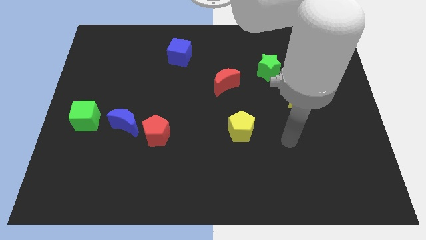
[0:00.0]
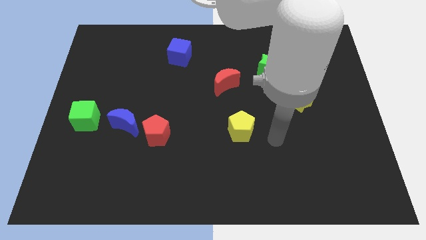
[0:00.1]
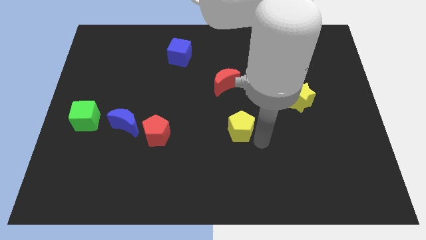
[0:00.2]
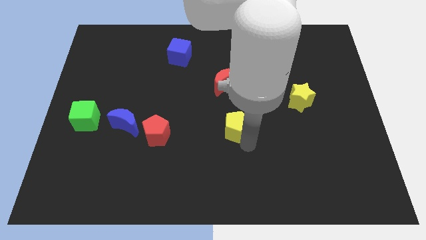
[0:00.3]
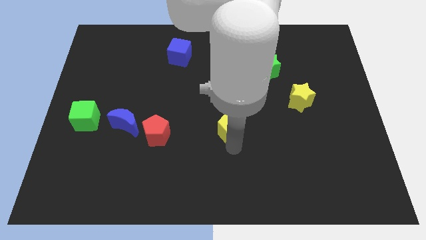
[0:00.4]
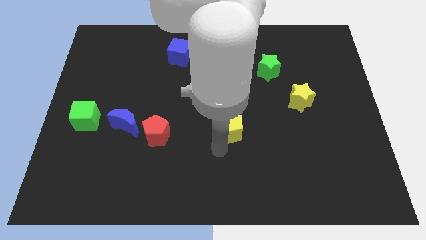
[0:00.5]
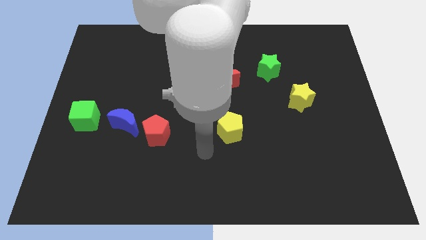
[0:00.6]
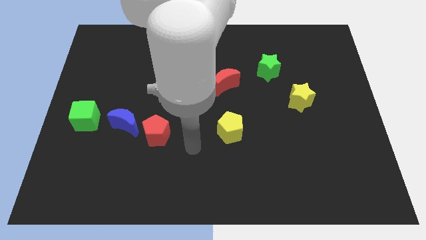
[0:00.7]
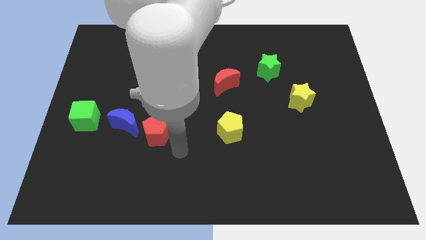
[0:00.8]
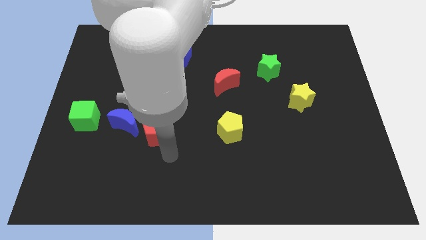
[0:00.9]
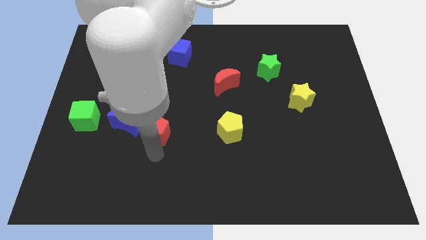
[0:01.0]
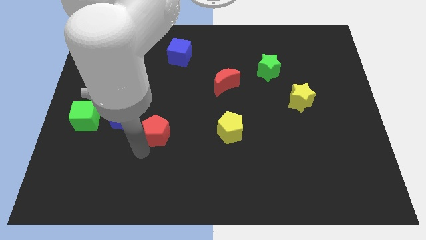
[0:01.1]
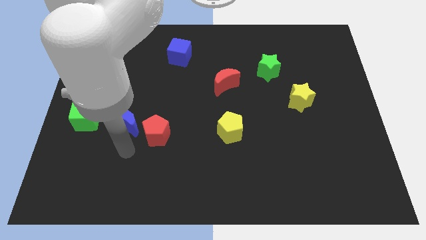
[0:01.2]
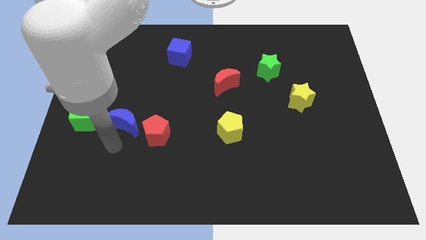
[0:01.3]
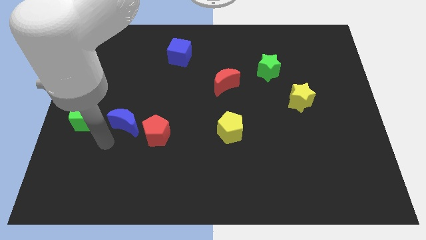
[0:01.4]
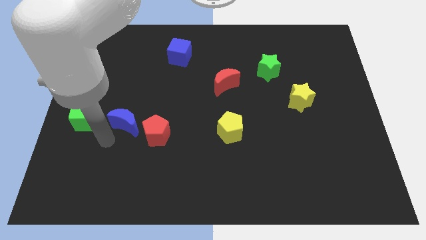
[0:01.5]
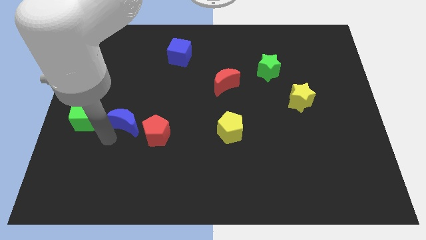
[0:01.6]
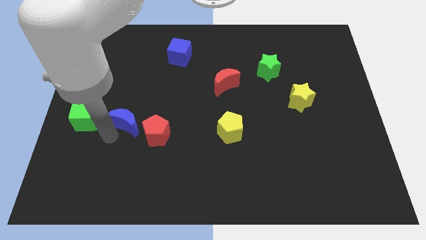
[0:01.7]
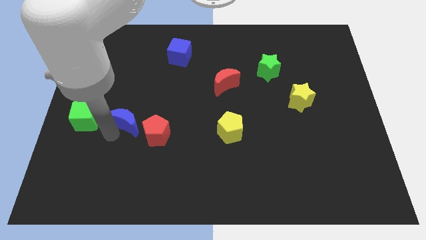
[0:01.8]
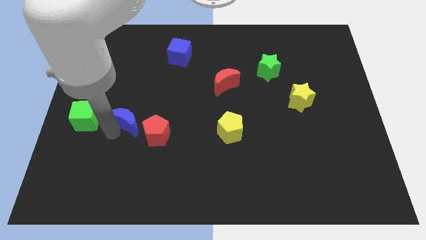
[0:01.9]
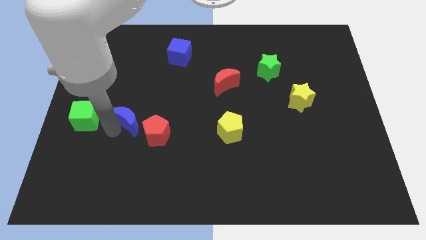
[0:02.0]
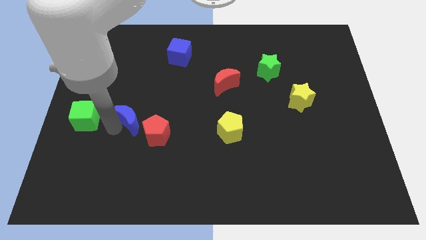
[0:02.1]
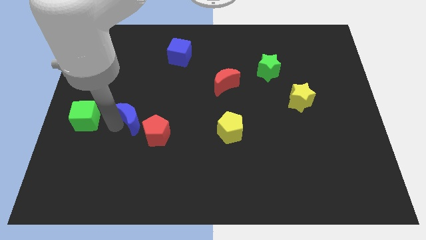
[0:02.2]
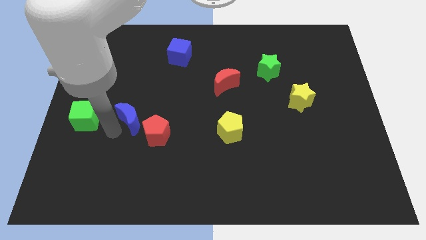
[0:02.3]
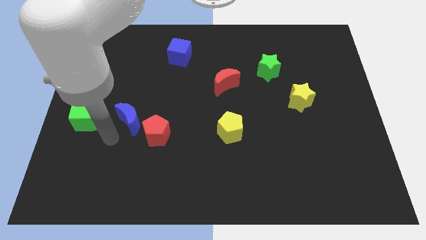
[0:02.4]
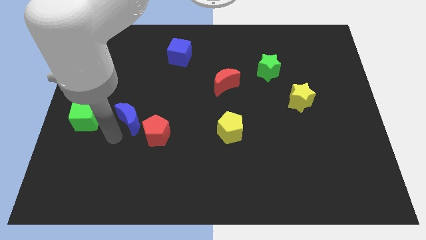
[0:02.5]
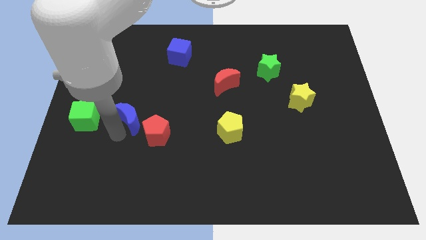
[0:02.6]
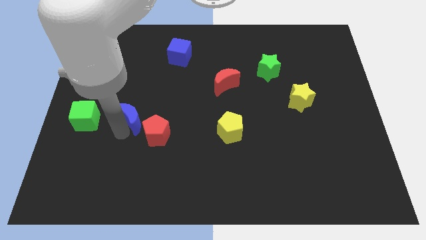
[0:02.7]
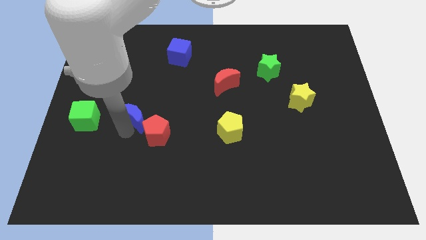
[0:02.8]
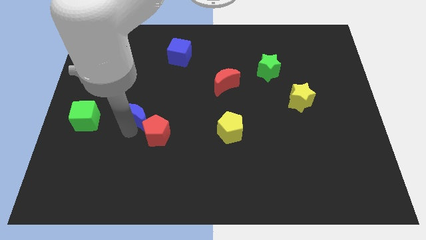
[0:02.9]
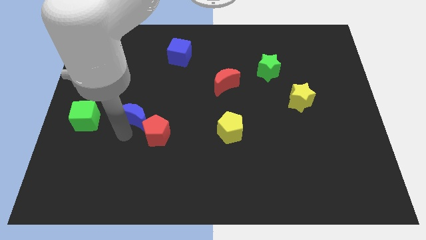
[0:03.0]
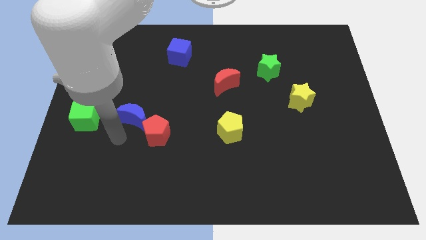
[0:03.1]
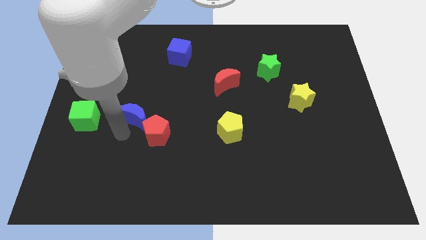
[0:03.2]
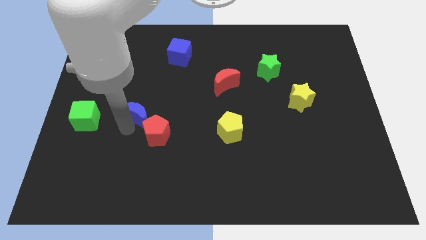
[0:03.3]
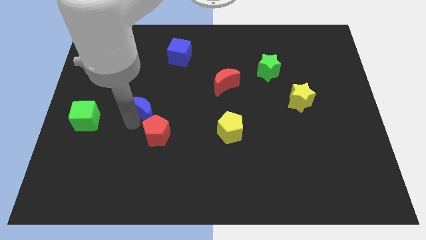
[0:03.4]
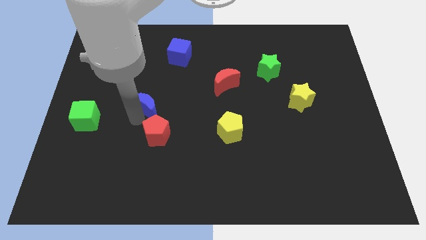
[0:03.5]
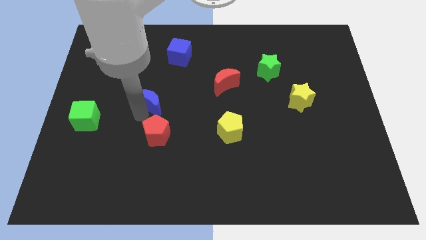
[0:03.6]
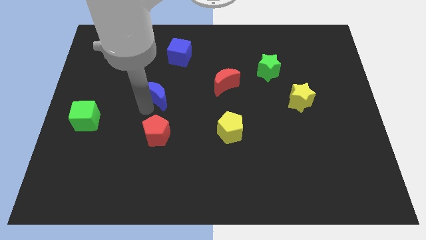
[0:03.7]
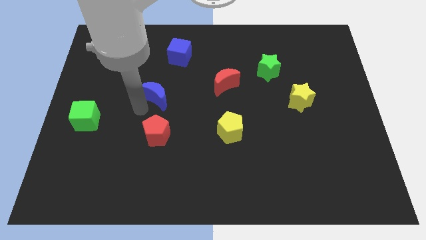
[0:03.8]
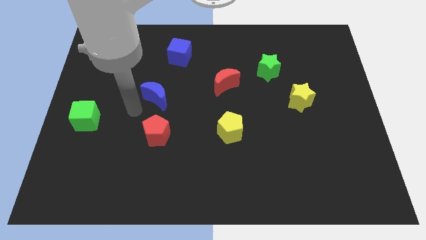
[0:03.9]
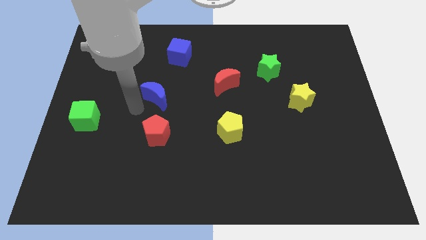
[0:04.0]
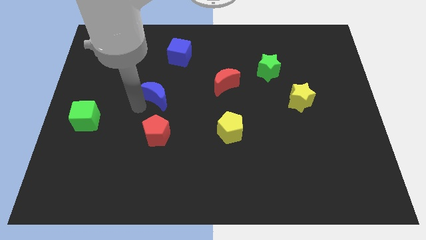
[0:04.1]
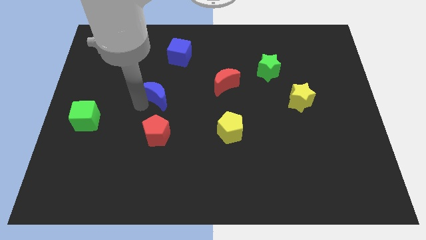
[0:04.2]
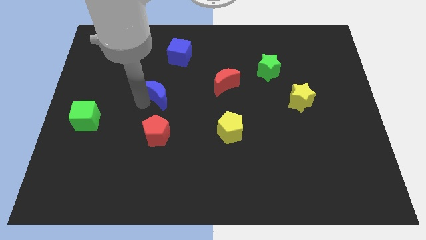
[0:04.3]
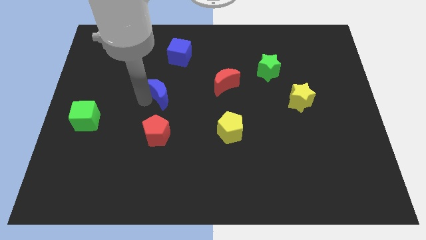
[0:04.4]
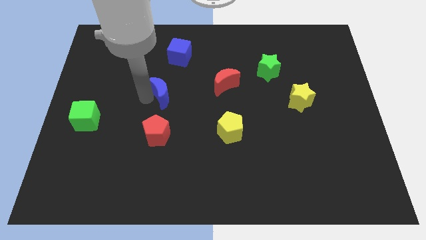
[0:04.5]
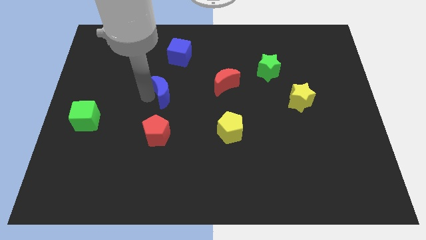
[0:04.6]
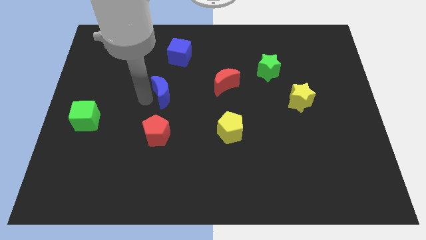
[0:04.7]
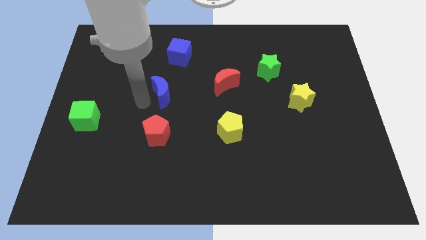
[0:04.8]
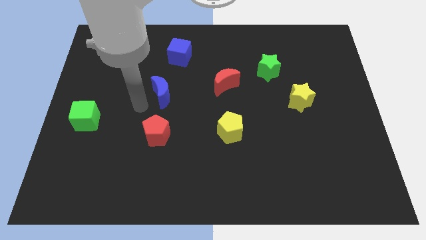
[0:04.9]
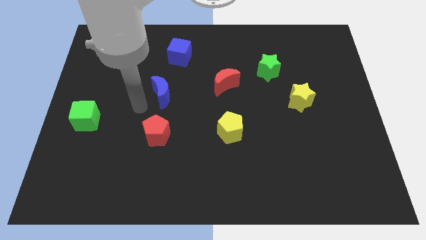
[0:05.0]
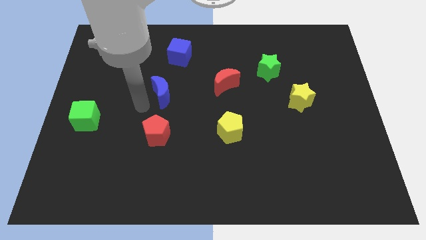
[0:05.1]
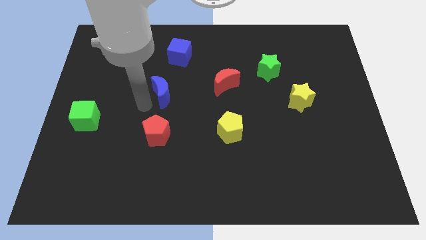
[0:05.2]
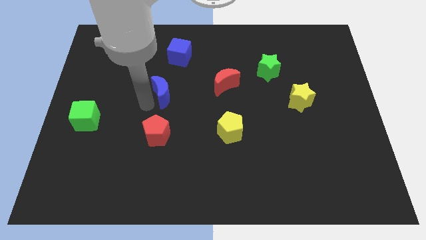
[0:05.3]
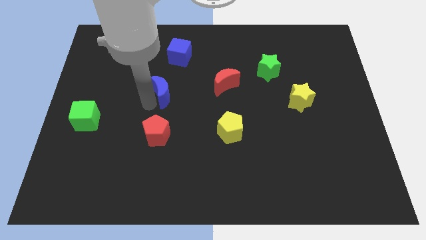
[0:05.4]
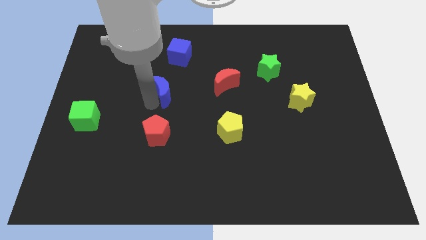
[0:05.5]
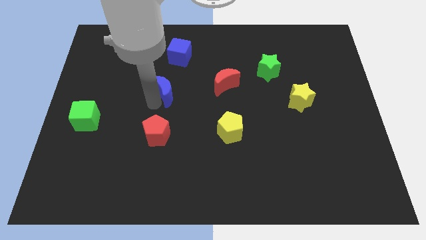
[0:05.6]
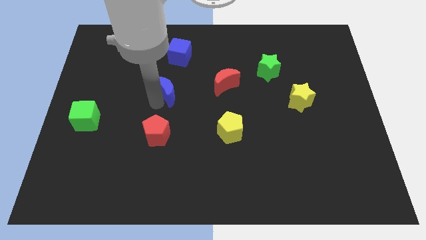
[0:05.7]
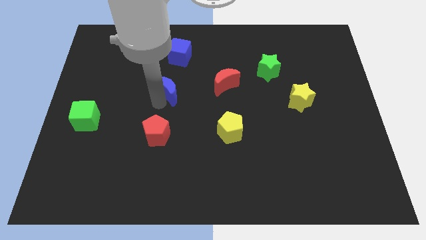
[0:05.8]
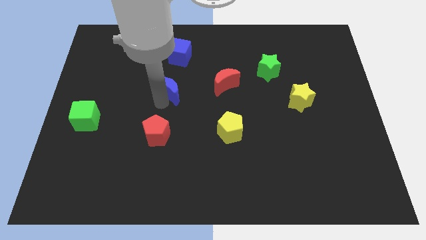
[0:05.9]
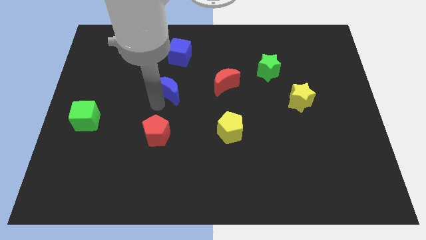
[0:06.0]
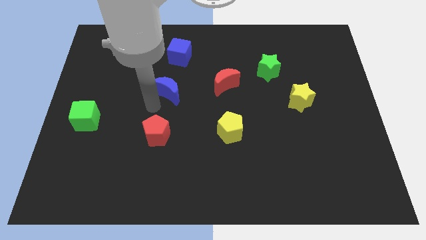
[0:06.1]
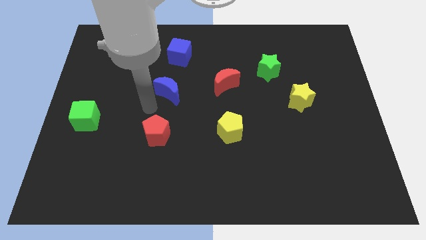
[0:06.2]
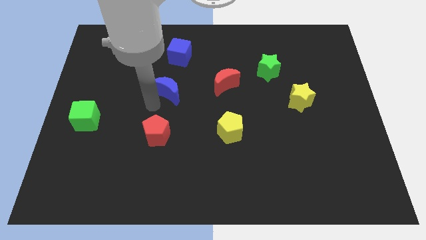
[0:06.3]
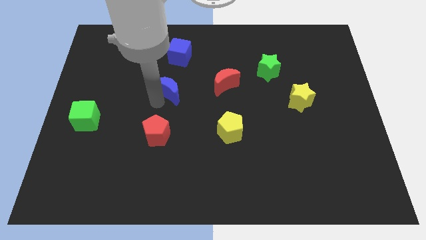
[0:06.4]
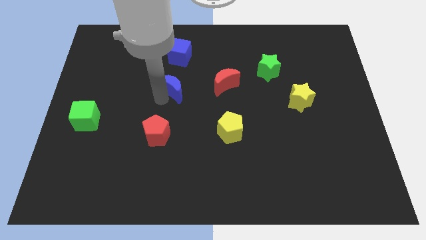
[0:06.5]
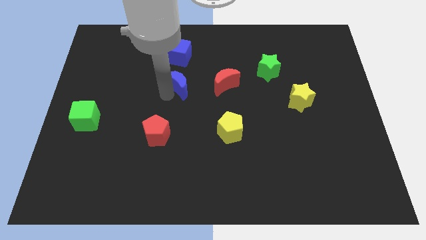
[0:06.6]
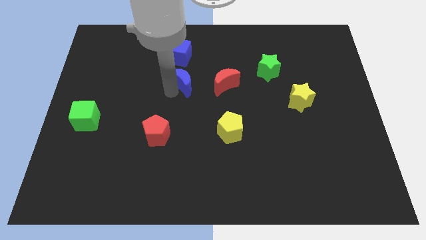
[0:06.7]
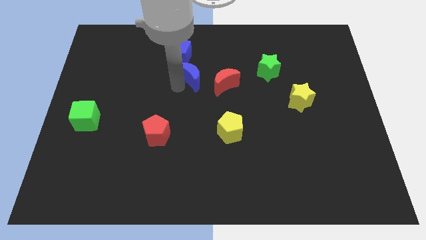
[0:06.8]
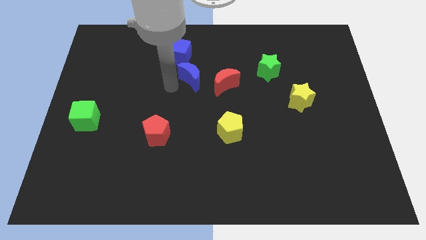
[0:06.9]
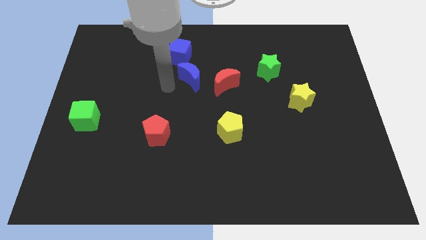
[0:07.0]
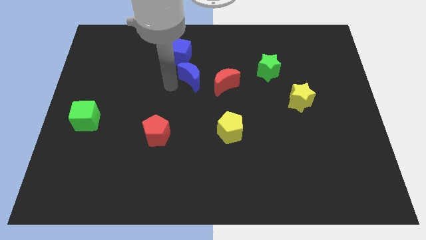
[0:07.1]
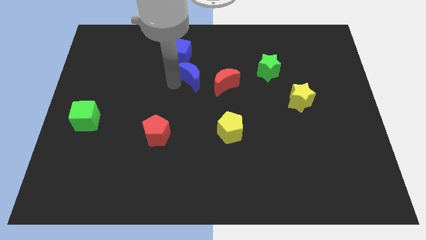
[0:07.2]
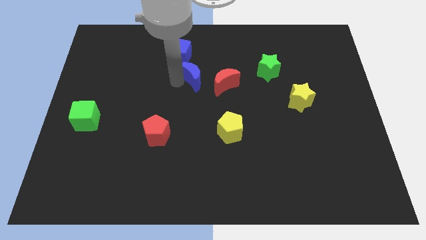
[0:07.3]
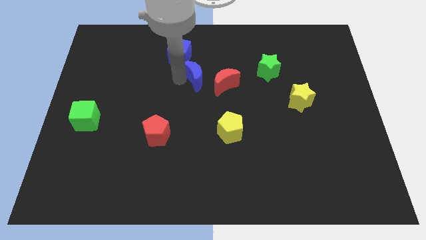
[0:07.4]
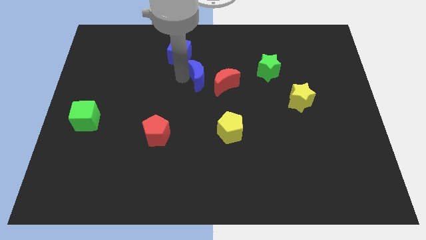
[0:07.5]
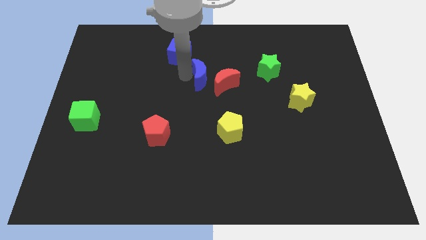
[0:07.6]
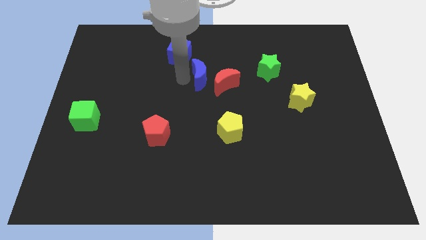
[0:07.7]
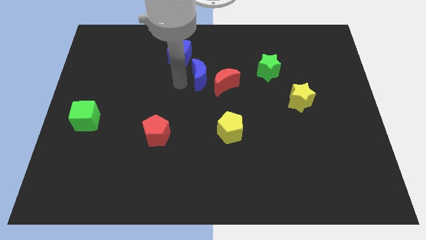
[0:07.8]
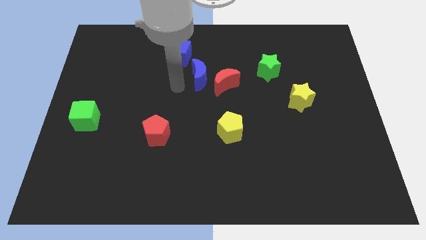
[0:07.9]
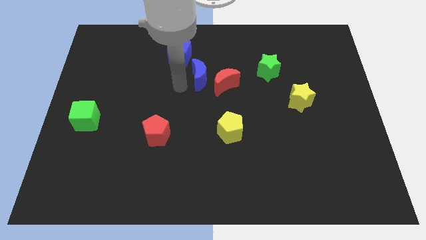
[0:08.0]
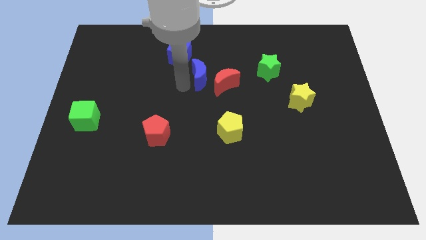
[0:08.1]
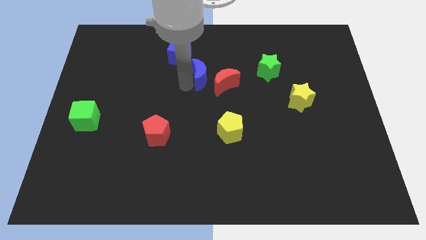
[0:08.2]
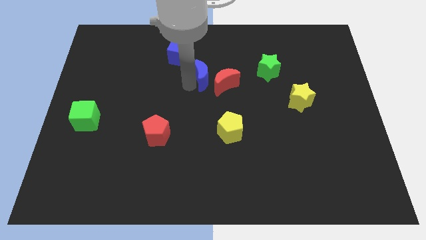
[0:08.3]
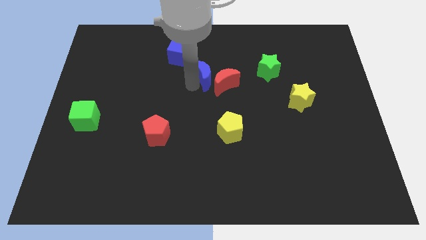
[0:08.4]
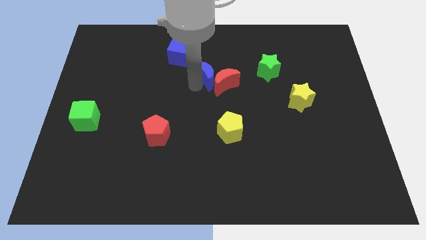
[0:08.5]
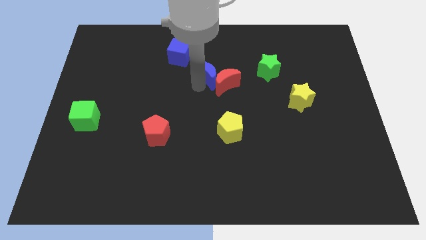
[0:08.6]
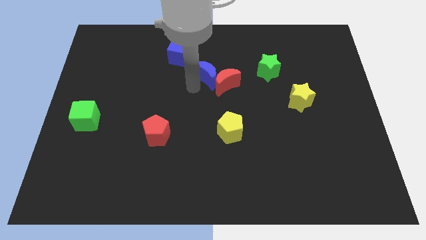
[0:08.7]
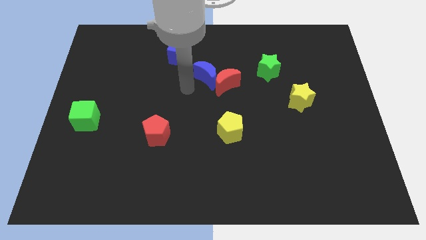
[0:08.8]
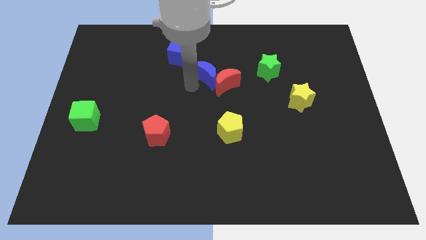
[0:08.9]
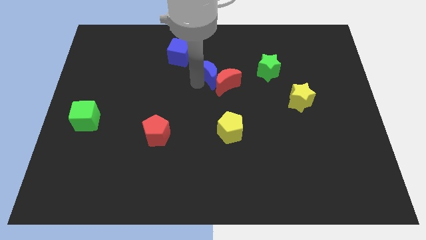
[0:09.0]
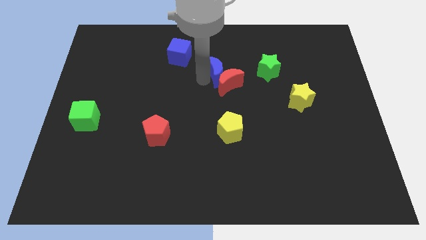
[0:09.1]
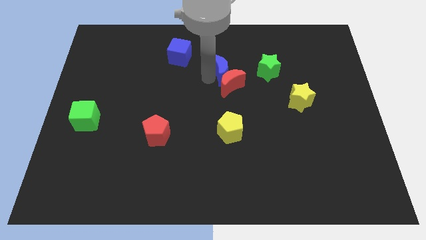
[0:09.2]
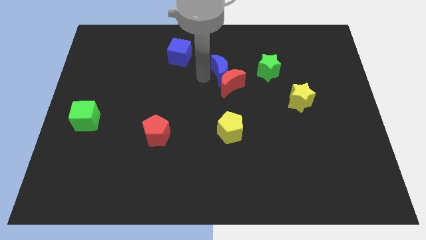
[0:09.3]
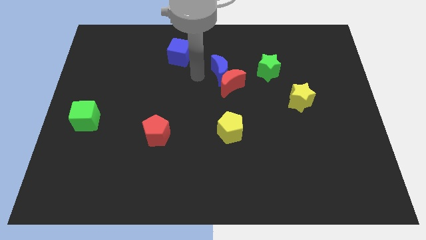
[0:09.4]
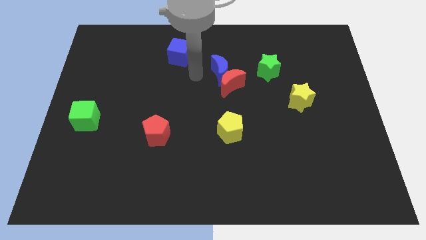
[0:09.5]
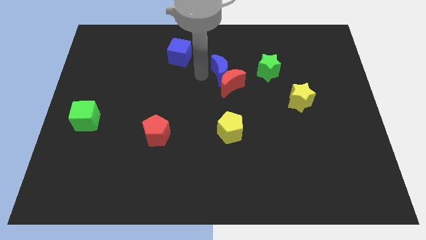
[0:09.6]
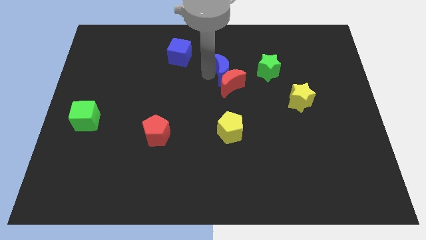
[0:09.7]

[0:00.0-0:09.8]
push the blue moon to the top right side of the red moon
